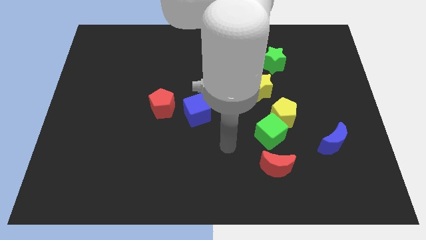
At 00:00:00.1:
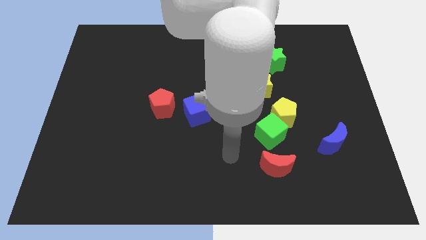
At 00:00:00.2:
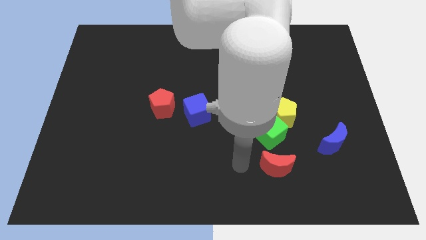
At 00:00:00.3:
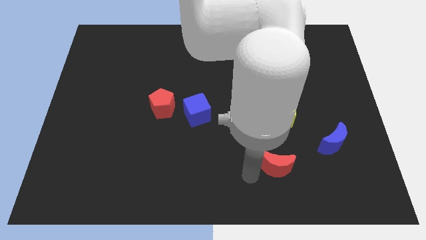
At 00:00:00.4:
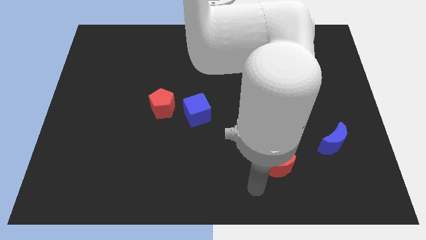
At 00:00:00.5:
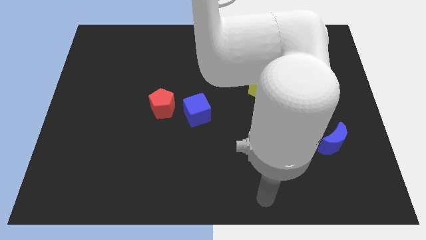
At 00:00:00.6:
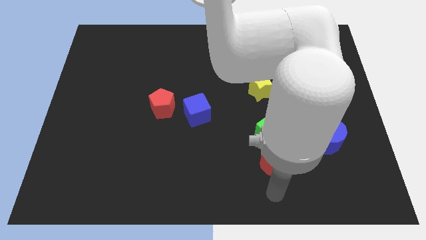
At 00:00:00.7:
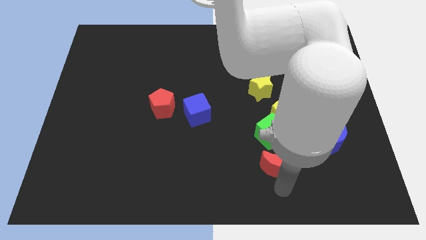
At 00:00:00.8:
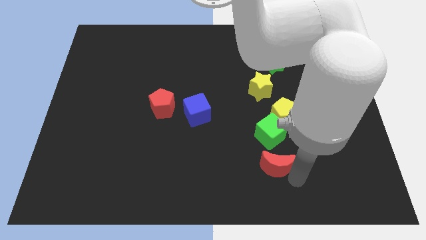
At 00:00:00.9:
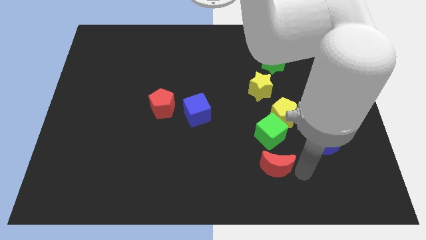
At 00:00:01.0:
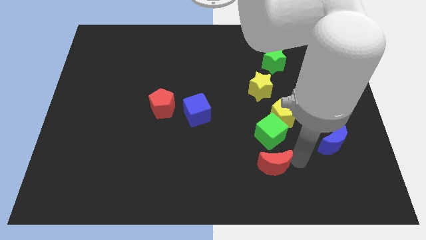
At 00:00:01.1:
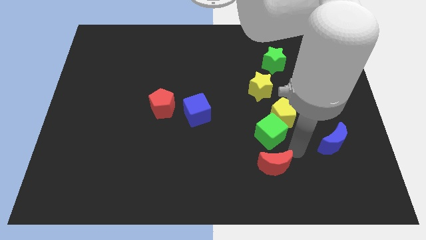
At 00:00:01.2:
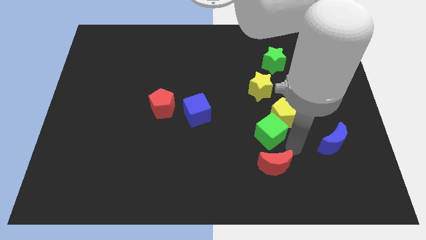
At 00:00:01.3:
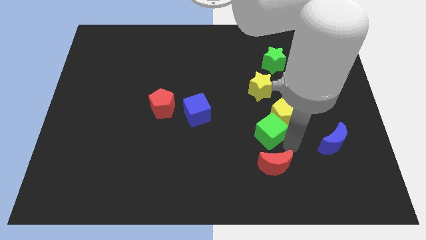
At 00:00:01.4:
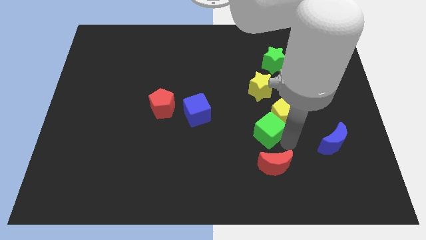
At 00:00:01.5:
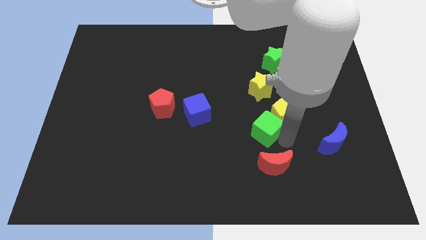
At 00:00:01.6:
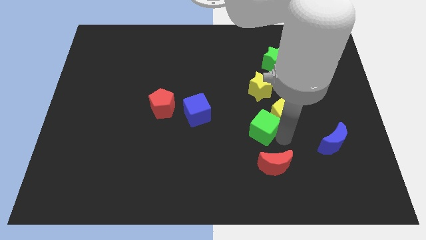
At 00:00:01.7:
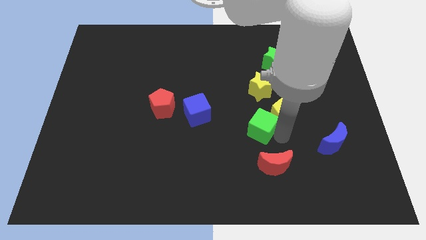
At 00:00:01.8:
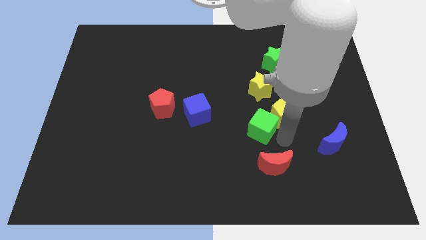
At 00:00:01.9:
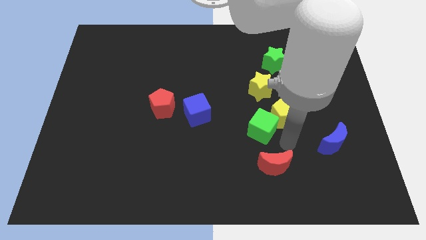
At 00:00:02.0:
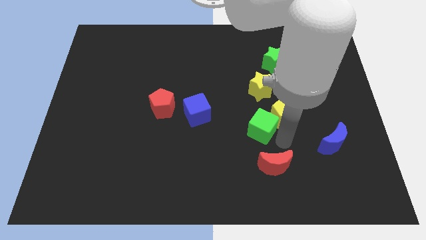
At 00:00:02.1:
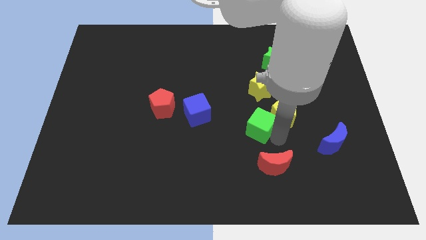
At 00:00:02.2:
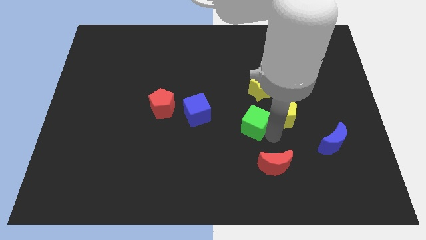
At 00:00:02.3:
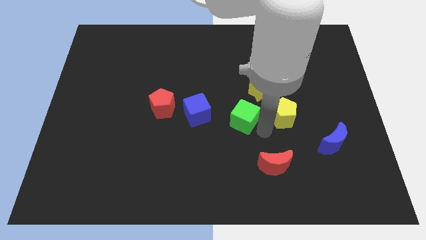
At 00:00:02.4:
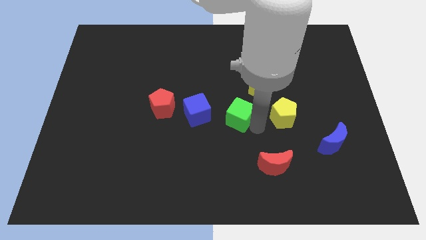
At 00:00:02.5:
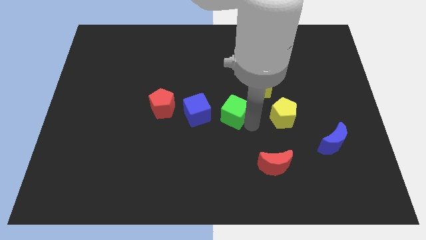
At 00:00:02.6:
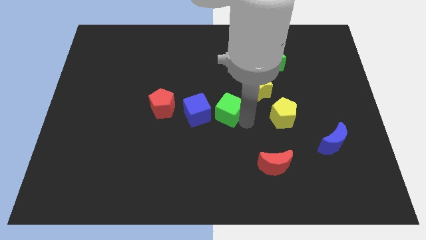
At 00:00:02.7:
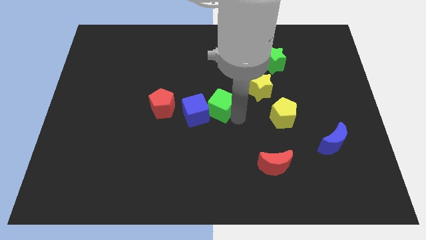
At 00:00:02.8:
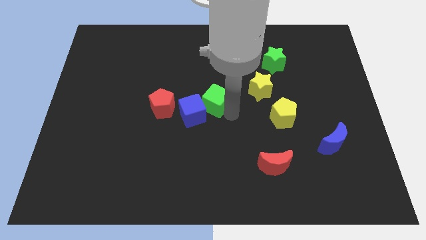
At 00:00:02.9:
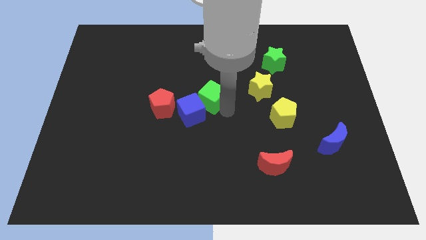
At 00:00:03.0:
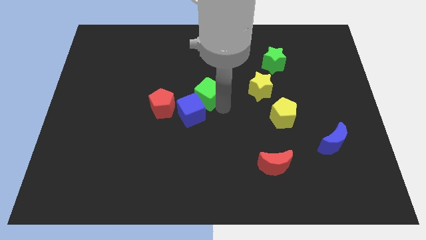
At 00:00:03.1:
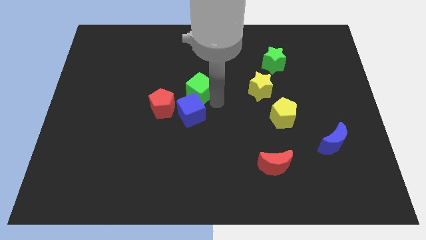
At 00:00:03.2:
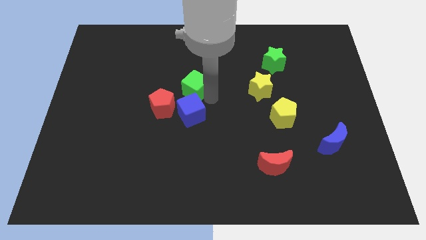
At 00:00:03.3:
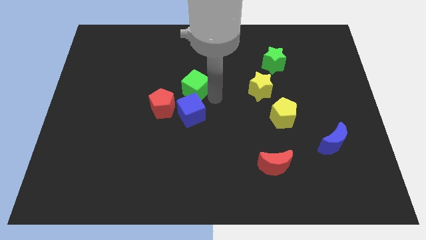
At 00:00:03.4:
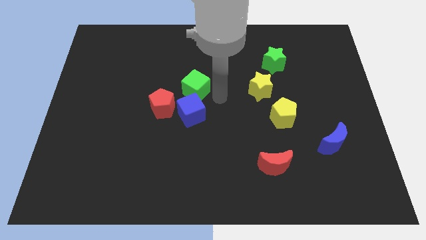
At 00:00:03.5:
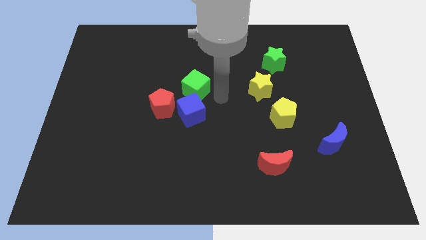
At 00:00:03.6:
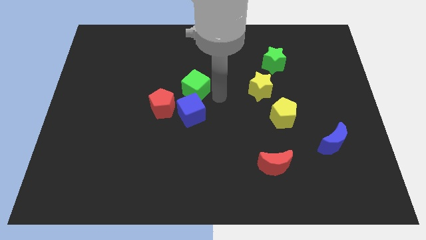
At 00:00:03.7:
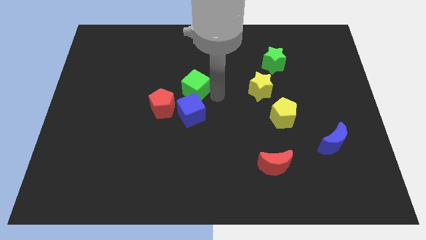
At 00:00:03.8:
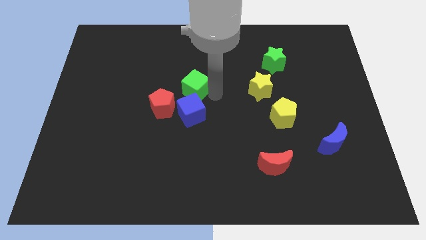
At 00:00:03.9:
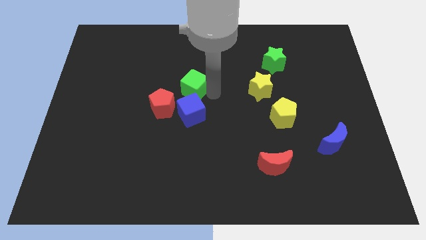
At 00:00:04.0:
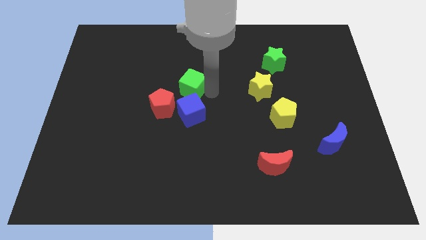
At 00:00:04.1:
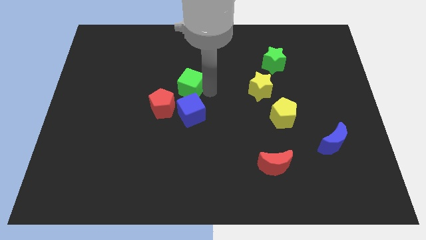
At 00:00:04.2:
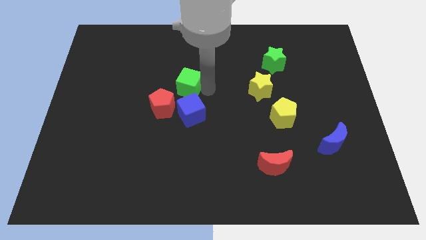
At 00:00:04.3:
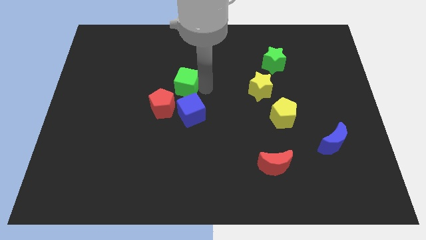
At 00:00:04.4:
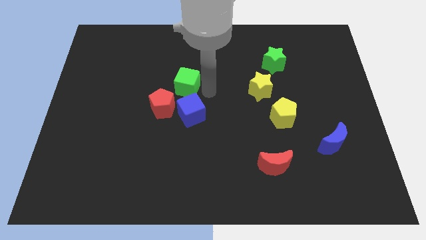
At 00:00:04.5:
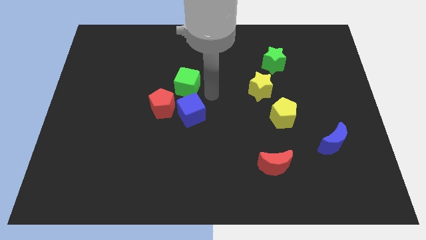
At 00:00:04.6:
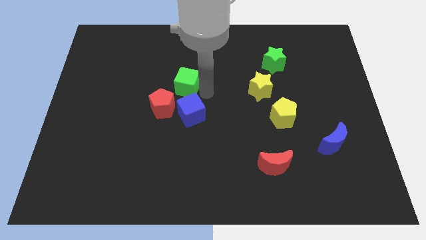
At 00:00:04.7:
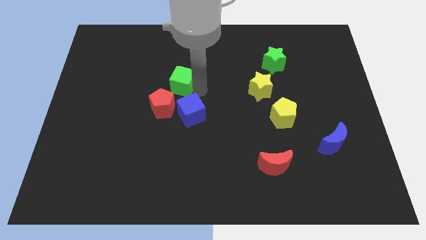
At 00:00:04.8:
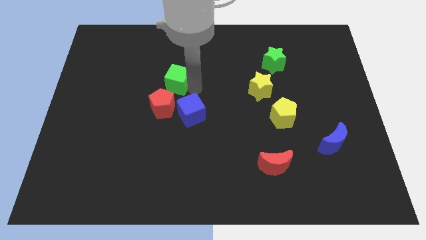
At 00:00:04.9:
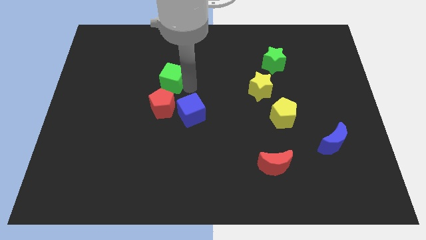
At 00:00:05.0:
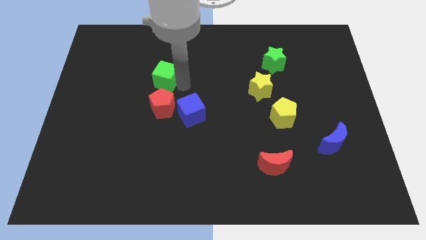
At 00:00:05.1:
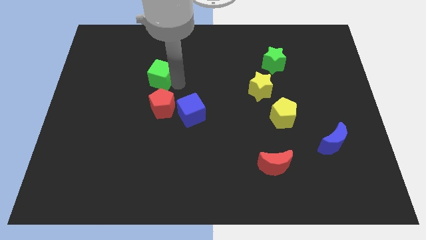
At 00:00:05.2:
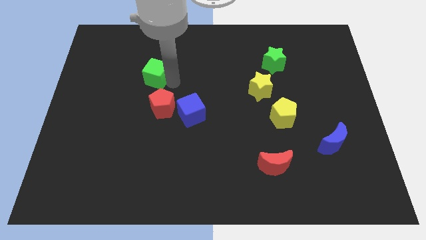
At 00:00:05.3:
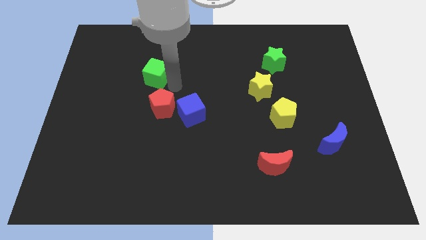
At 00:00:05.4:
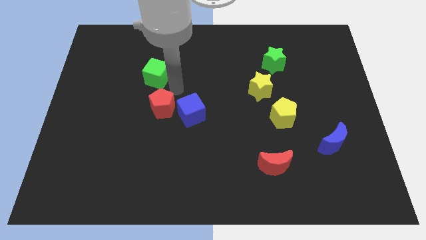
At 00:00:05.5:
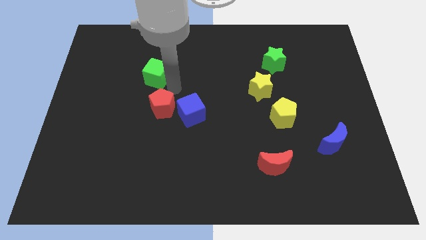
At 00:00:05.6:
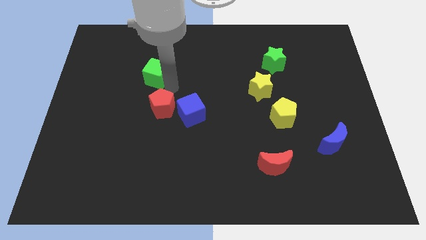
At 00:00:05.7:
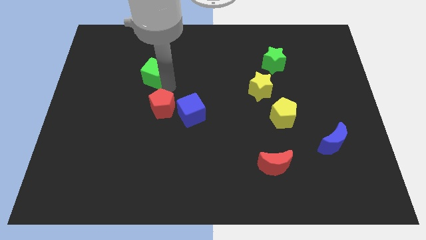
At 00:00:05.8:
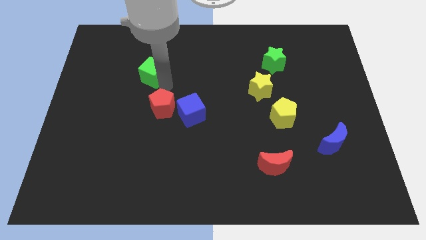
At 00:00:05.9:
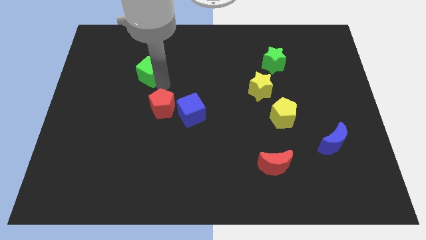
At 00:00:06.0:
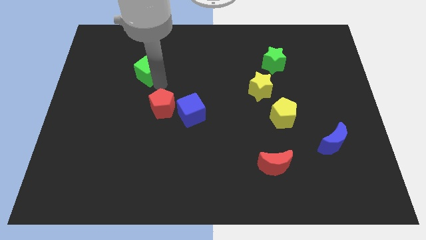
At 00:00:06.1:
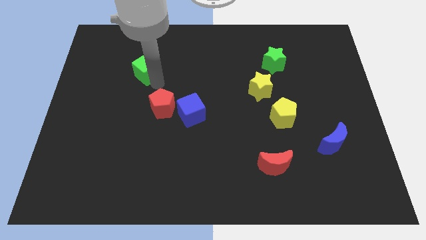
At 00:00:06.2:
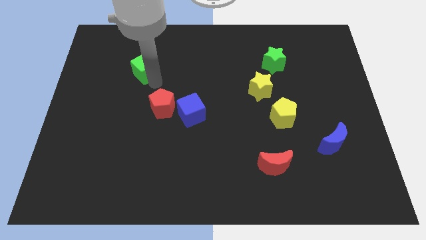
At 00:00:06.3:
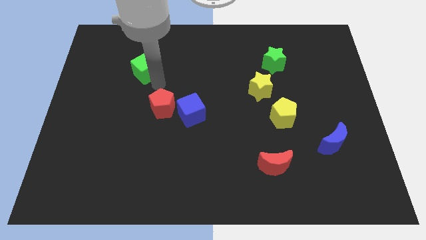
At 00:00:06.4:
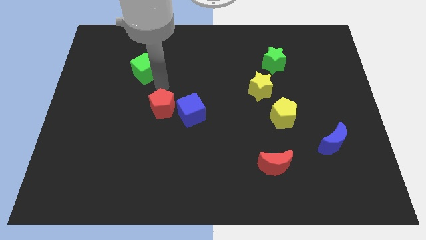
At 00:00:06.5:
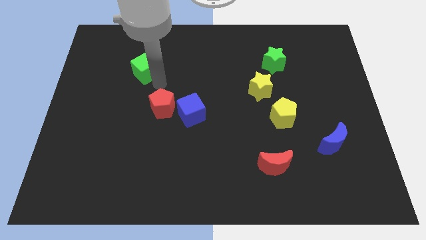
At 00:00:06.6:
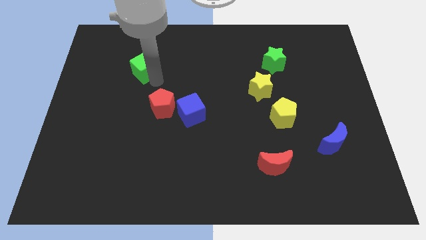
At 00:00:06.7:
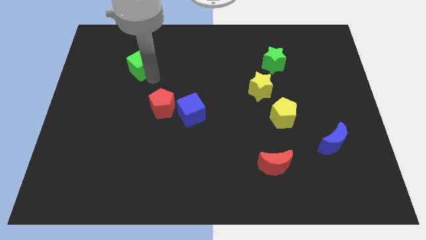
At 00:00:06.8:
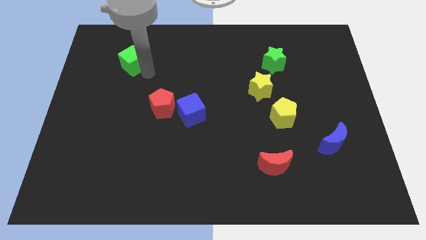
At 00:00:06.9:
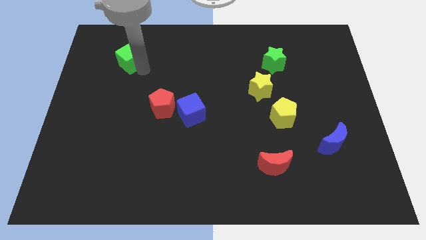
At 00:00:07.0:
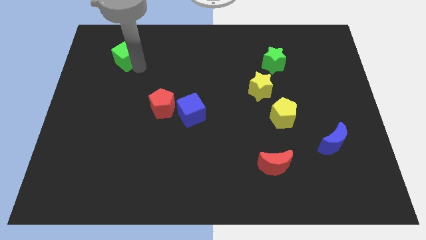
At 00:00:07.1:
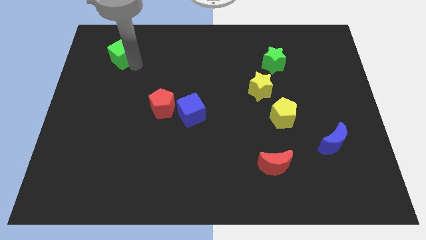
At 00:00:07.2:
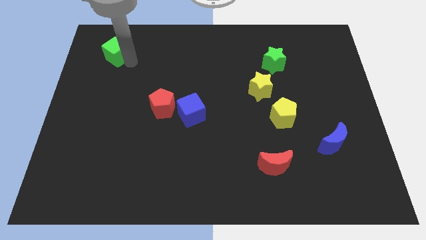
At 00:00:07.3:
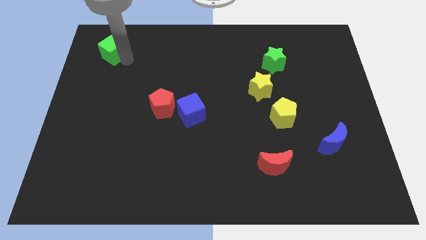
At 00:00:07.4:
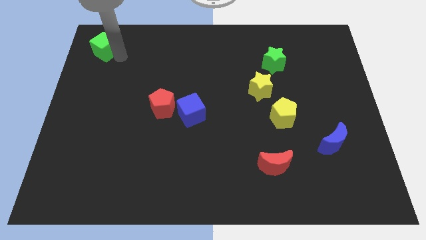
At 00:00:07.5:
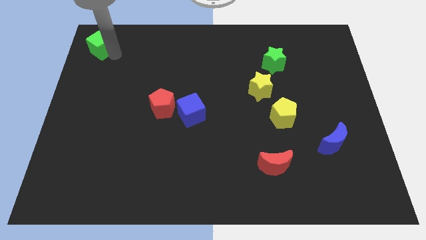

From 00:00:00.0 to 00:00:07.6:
push the green cube to the top left
